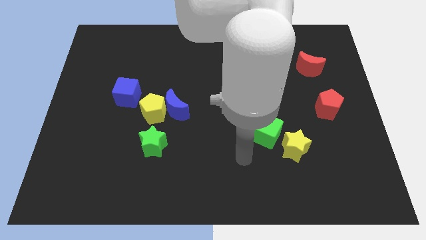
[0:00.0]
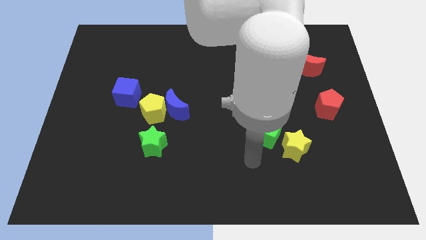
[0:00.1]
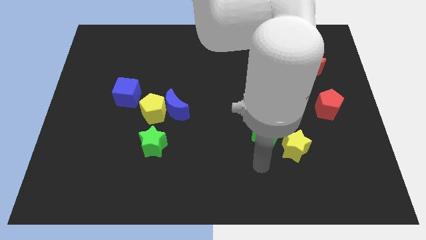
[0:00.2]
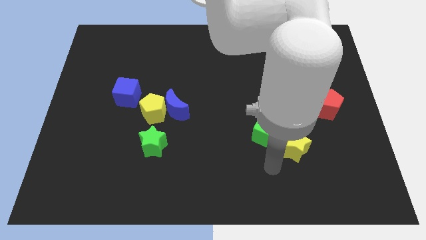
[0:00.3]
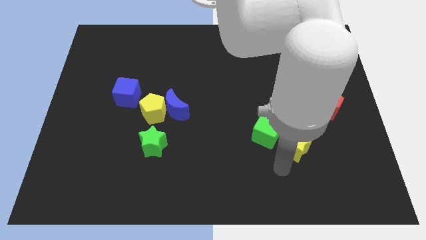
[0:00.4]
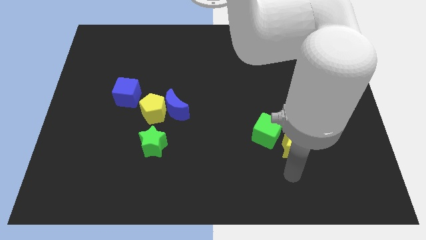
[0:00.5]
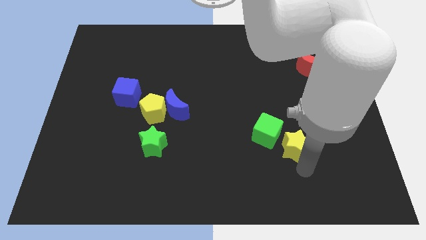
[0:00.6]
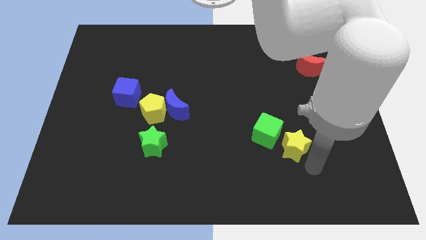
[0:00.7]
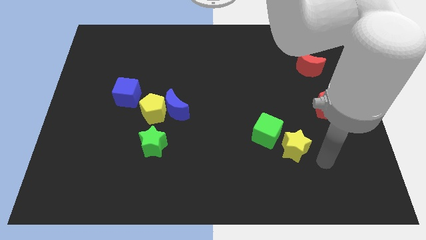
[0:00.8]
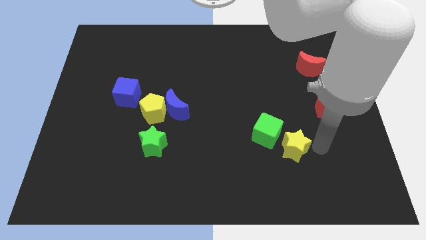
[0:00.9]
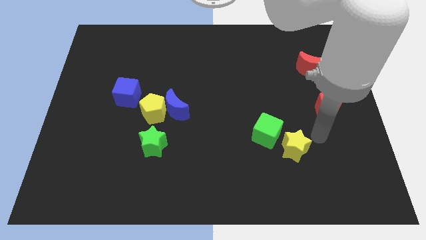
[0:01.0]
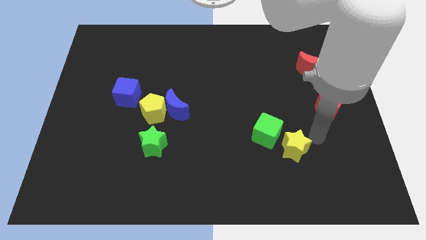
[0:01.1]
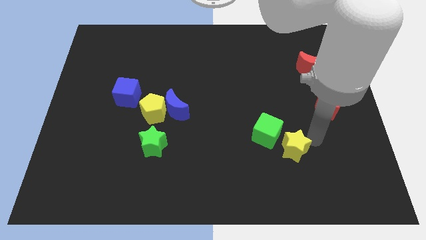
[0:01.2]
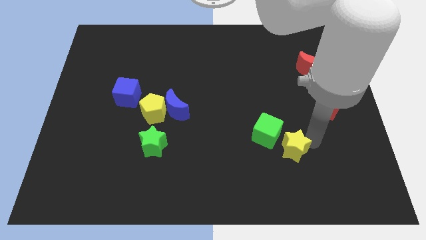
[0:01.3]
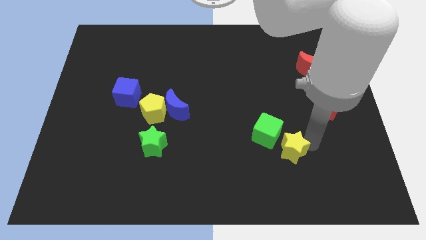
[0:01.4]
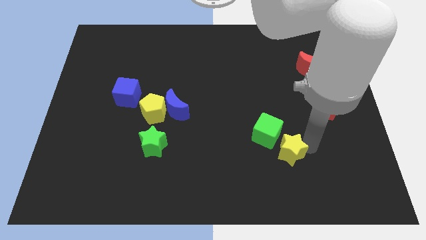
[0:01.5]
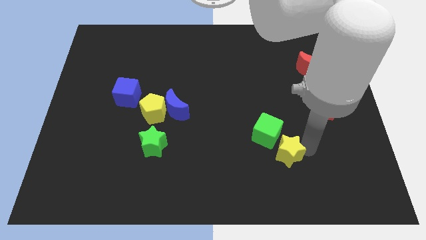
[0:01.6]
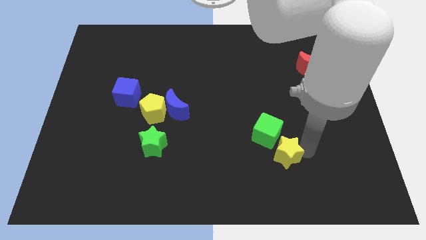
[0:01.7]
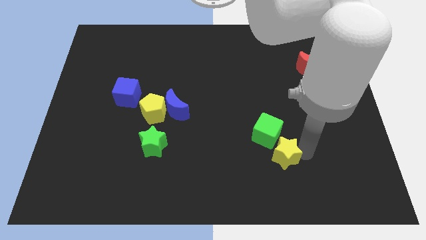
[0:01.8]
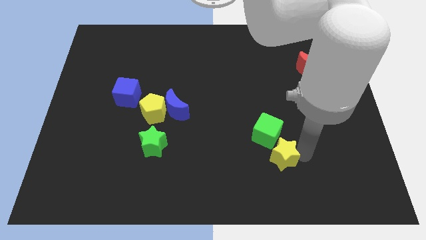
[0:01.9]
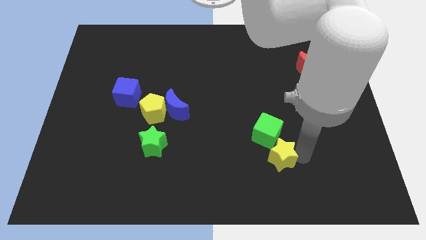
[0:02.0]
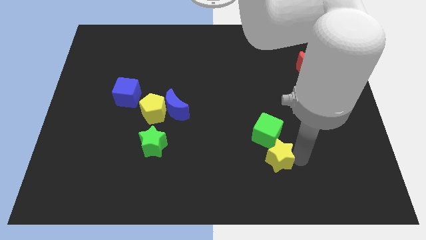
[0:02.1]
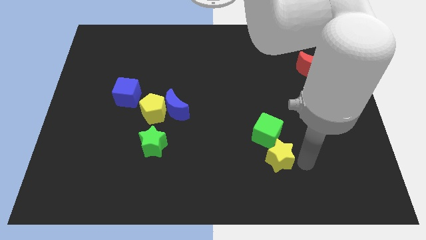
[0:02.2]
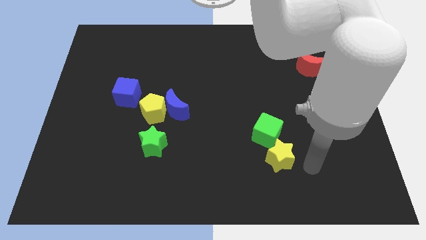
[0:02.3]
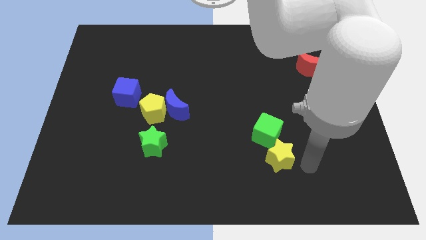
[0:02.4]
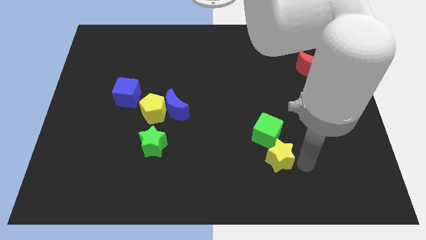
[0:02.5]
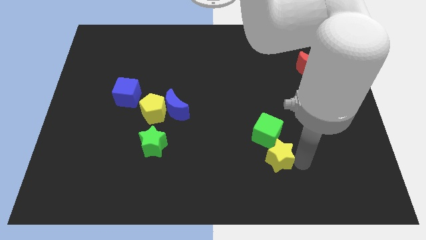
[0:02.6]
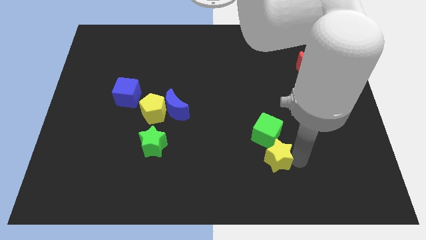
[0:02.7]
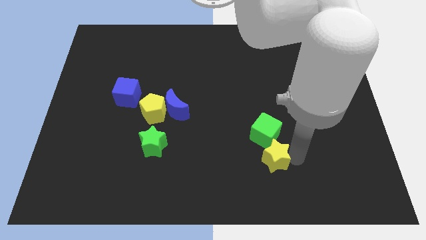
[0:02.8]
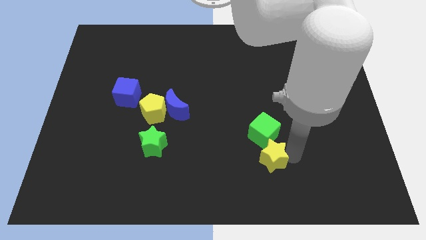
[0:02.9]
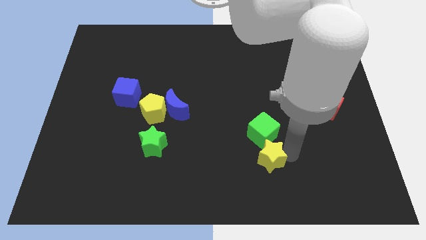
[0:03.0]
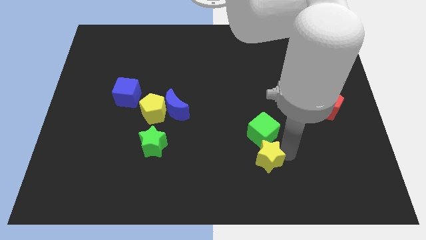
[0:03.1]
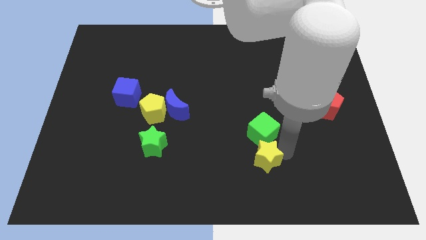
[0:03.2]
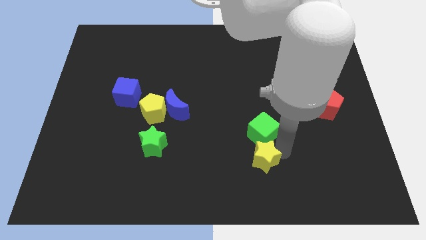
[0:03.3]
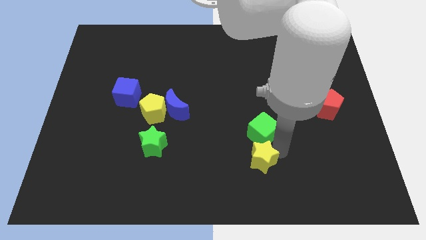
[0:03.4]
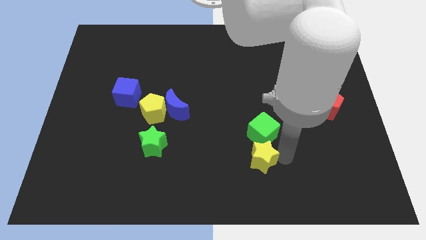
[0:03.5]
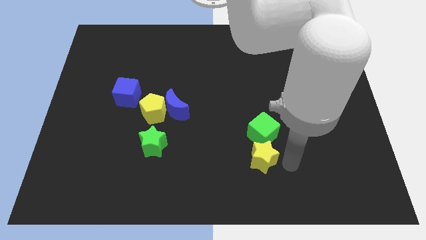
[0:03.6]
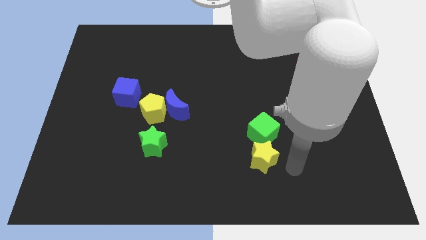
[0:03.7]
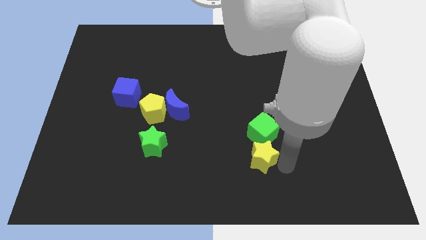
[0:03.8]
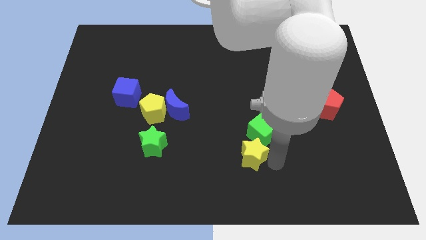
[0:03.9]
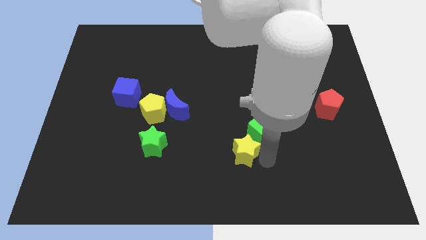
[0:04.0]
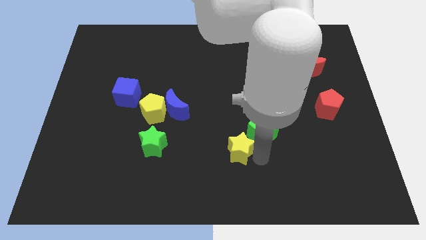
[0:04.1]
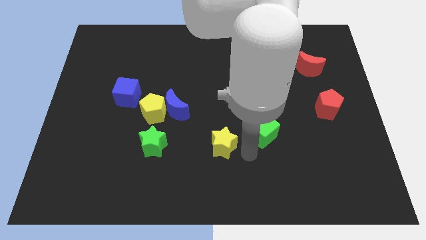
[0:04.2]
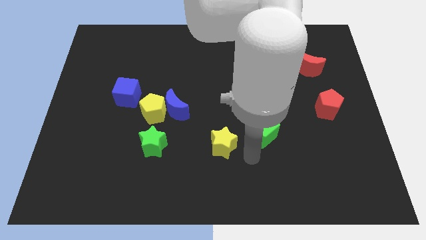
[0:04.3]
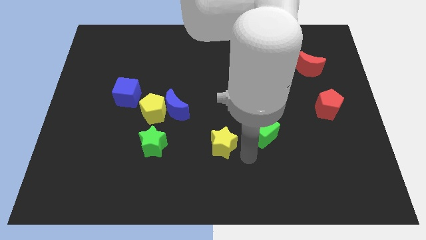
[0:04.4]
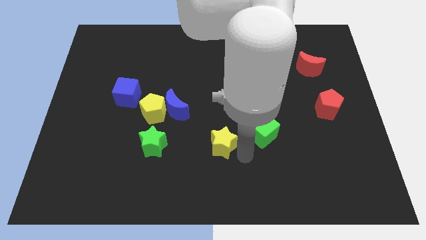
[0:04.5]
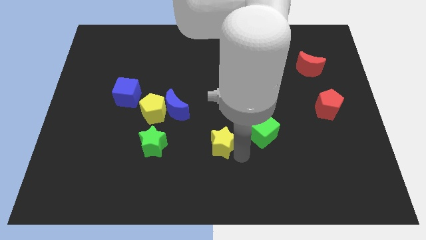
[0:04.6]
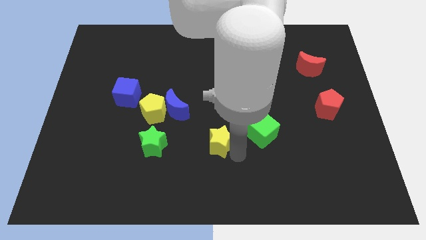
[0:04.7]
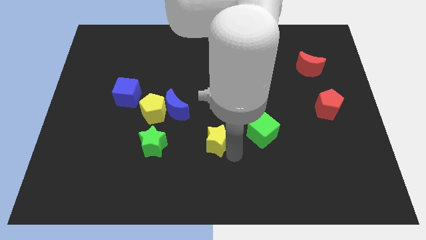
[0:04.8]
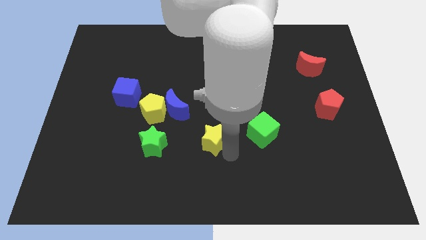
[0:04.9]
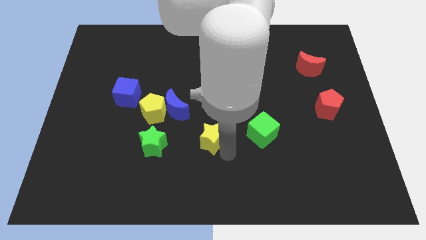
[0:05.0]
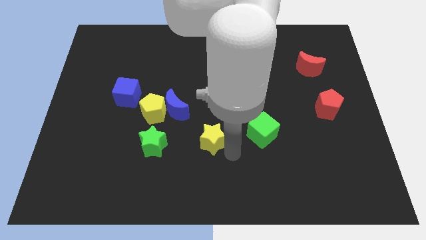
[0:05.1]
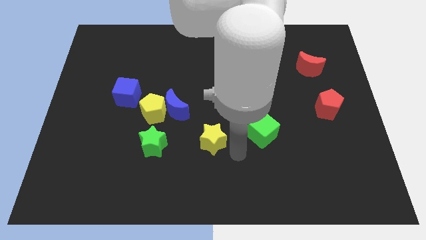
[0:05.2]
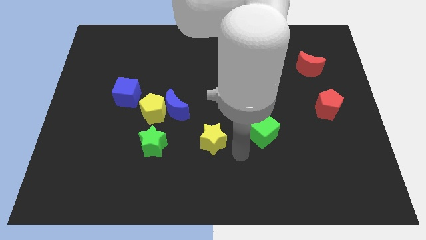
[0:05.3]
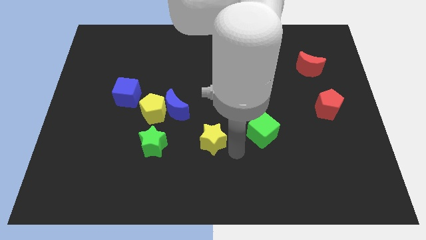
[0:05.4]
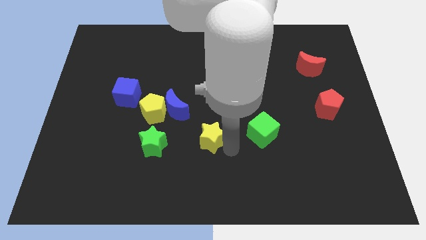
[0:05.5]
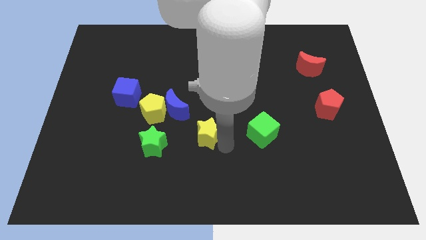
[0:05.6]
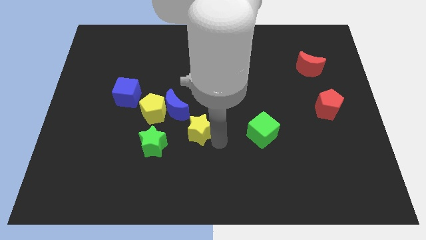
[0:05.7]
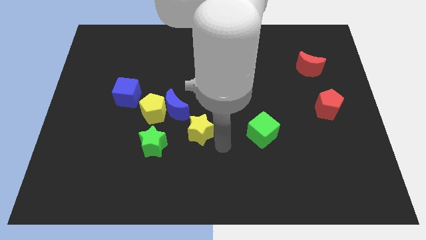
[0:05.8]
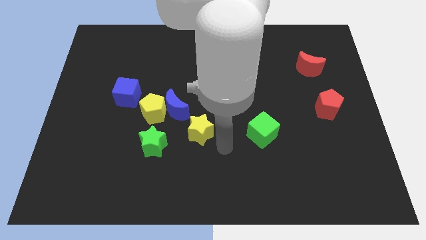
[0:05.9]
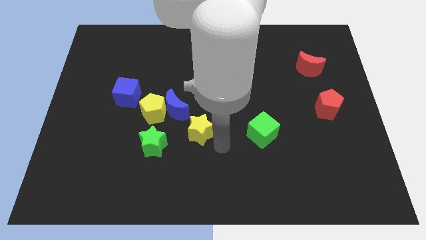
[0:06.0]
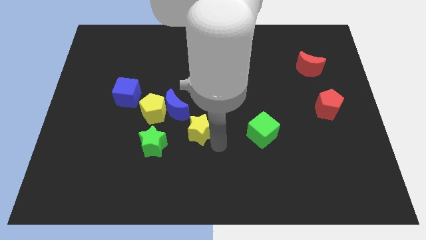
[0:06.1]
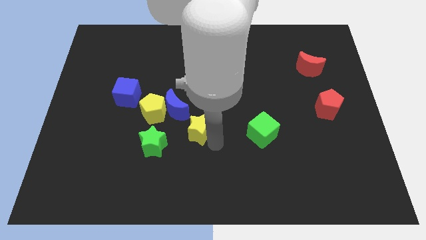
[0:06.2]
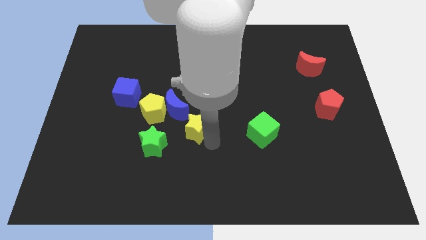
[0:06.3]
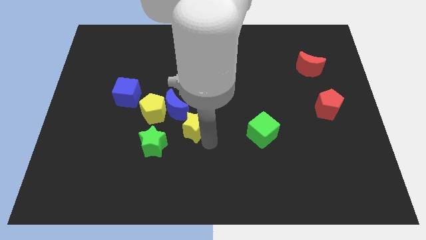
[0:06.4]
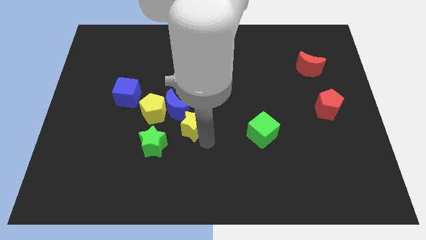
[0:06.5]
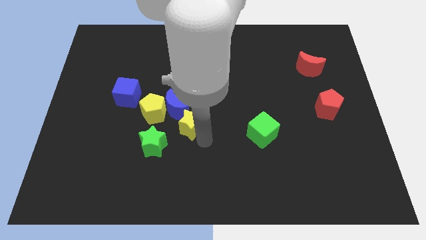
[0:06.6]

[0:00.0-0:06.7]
put the yellow star to the blue moon

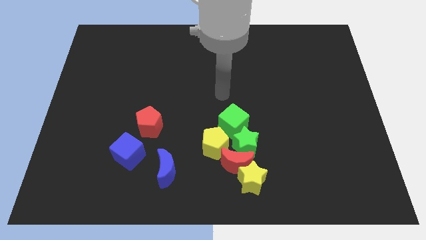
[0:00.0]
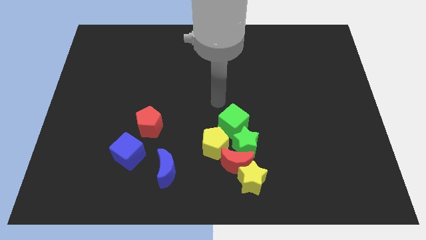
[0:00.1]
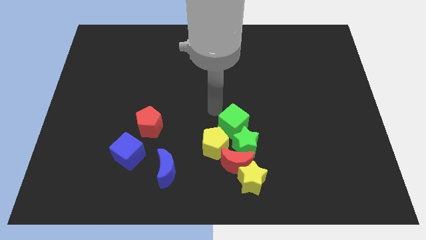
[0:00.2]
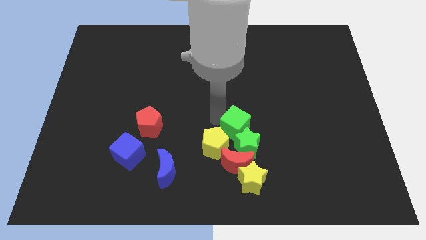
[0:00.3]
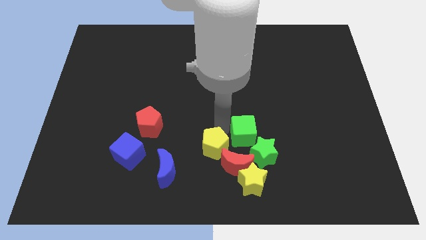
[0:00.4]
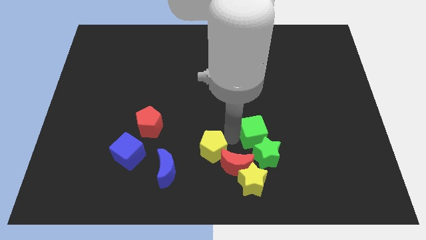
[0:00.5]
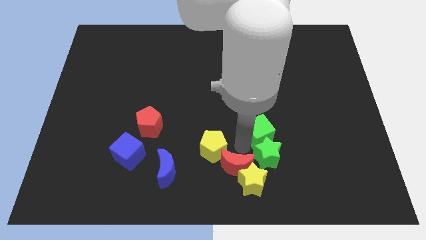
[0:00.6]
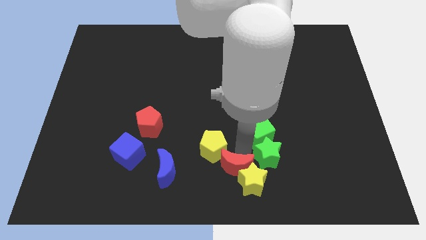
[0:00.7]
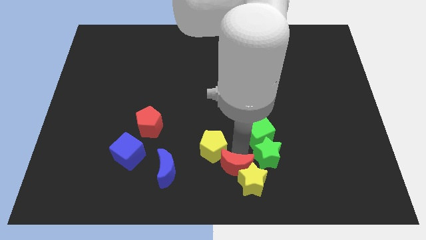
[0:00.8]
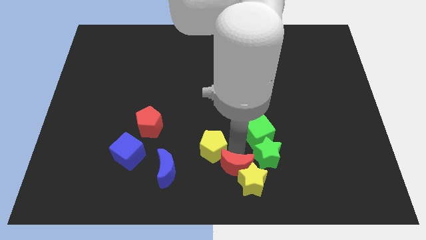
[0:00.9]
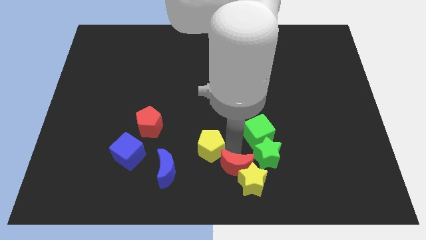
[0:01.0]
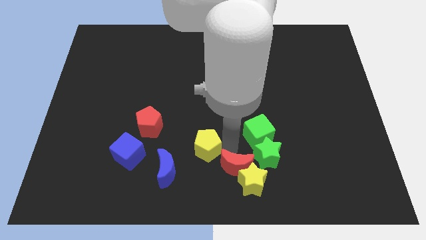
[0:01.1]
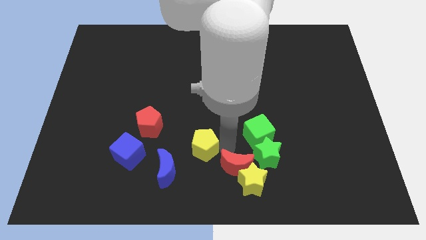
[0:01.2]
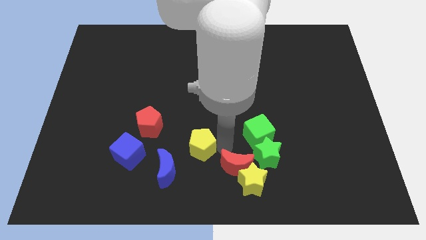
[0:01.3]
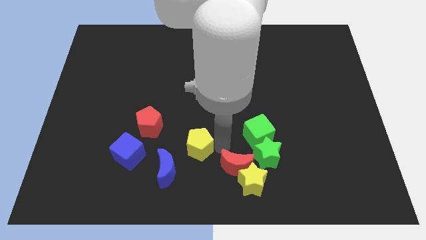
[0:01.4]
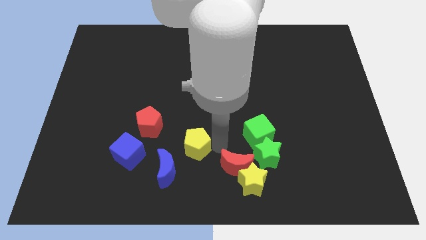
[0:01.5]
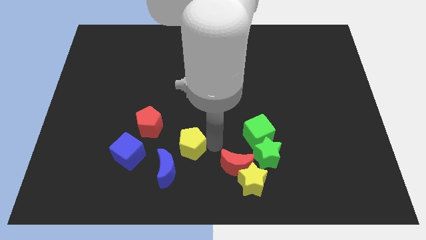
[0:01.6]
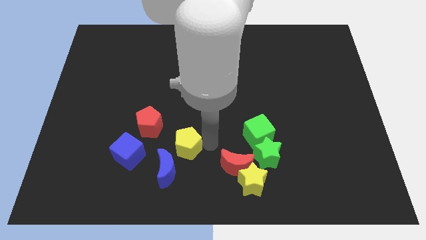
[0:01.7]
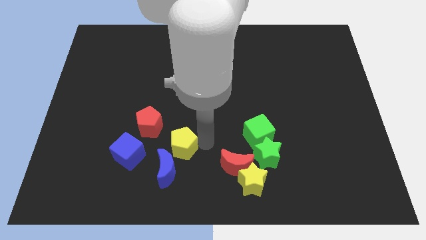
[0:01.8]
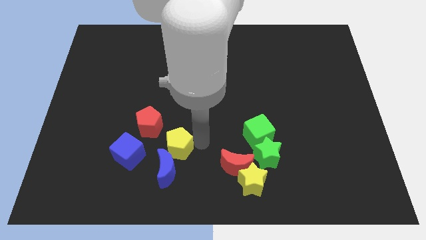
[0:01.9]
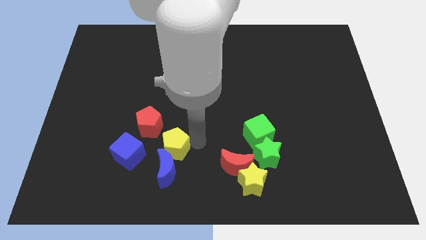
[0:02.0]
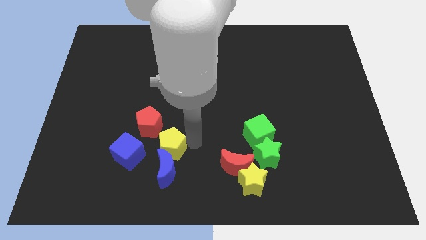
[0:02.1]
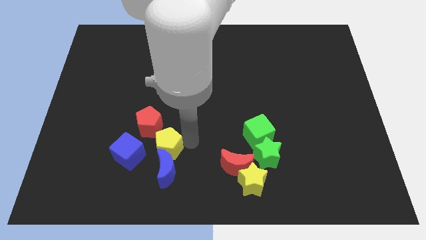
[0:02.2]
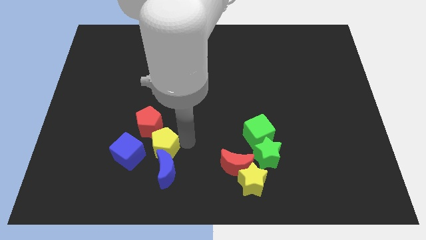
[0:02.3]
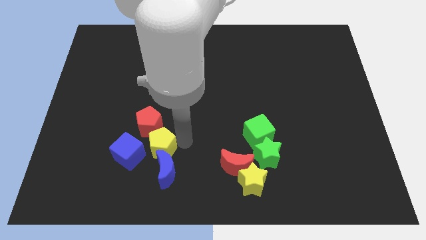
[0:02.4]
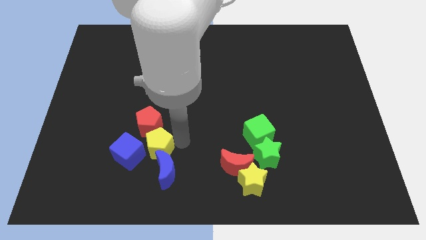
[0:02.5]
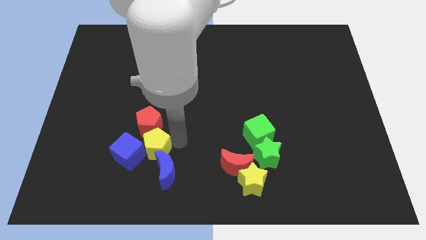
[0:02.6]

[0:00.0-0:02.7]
push the yellow pentagon to the blue cube
